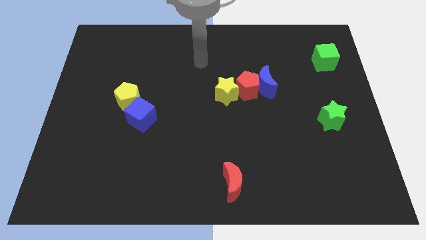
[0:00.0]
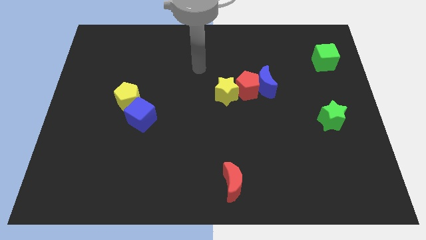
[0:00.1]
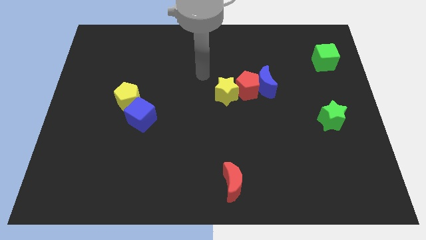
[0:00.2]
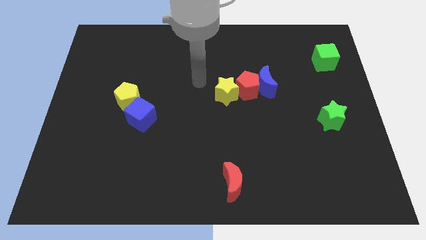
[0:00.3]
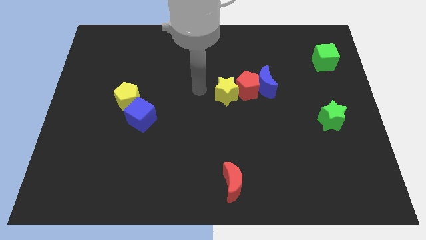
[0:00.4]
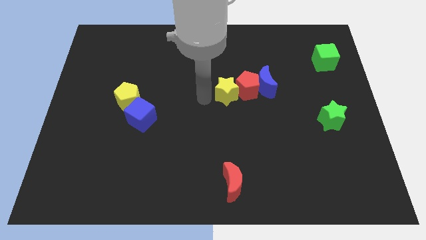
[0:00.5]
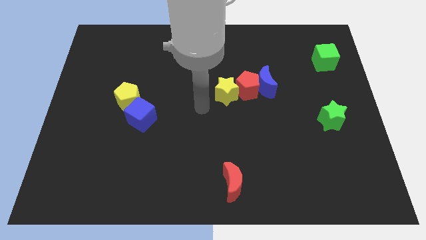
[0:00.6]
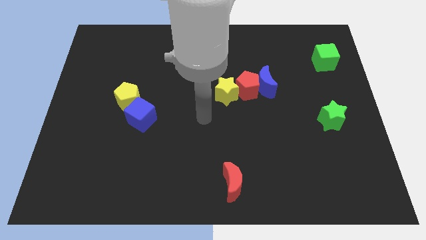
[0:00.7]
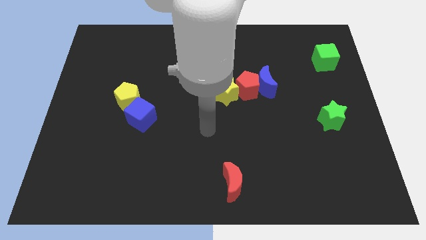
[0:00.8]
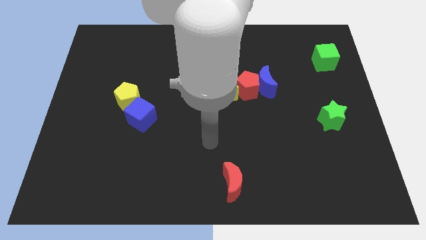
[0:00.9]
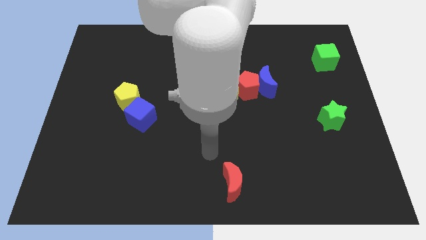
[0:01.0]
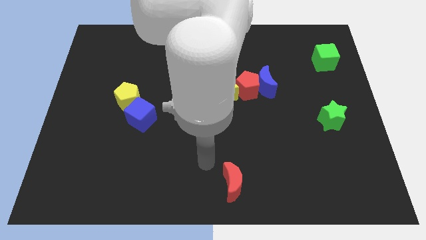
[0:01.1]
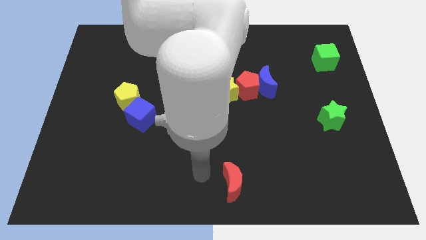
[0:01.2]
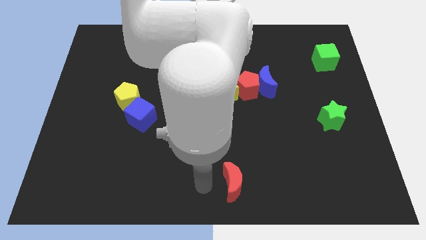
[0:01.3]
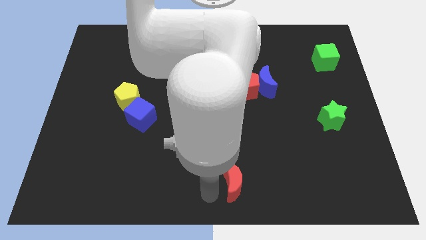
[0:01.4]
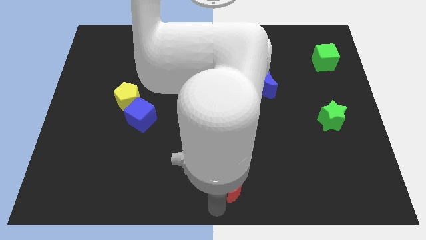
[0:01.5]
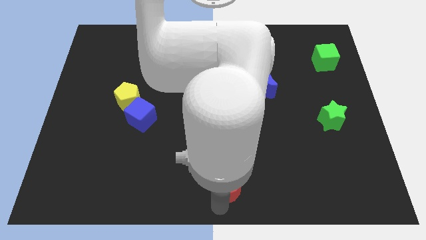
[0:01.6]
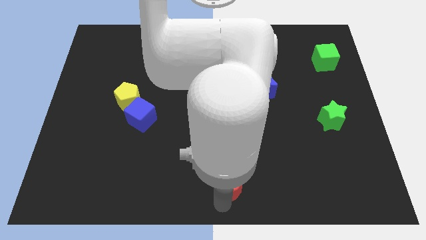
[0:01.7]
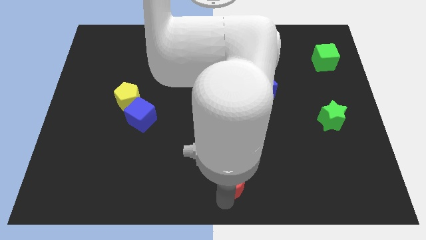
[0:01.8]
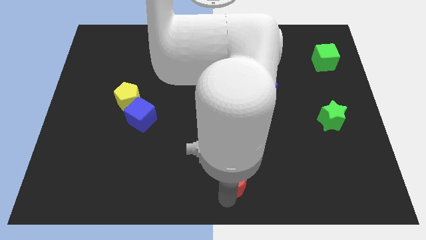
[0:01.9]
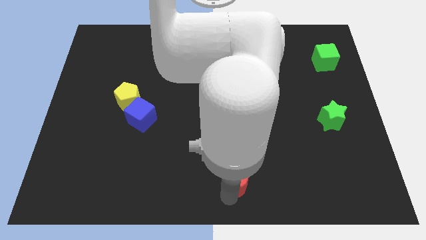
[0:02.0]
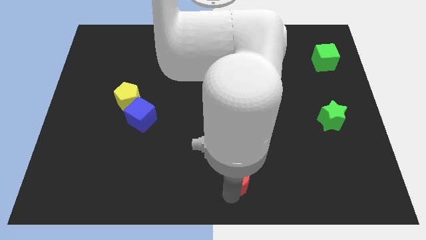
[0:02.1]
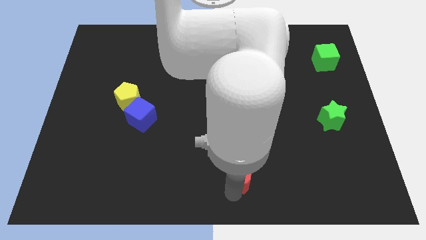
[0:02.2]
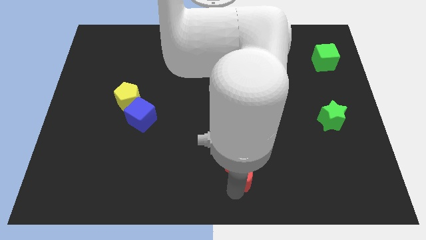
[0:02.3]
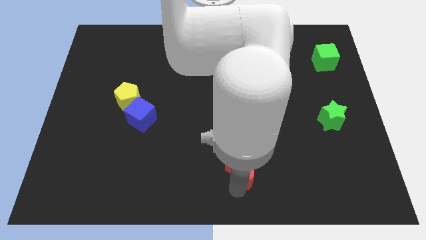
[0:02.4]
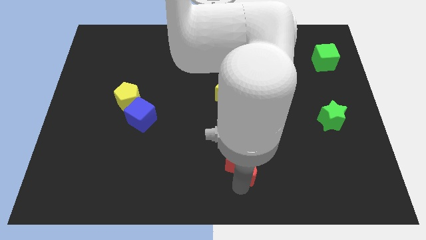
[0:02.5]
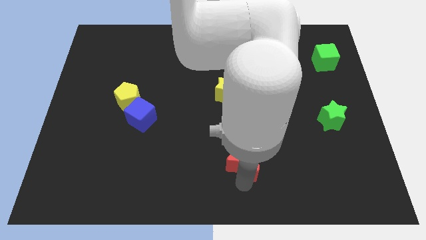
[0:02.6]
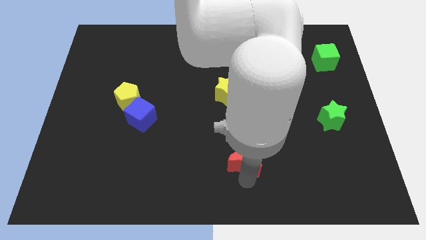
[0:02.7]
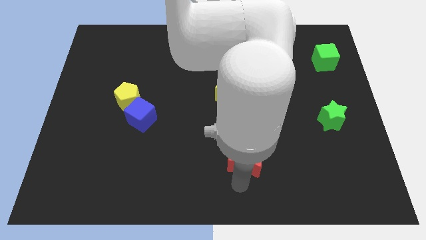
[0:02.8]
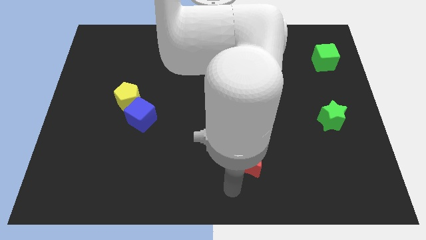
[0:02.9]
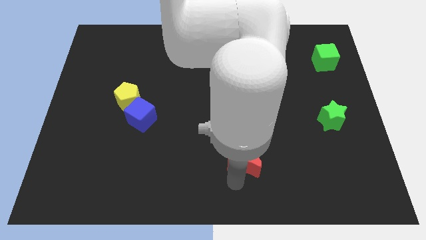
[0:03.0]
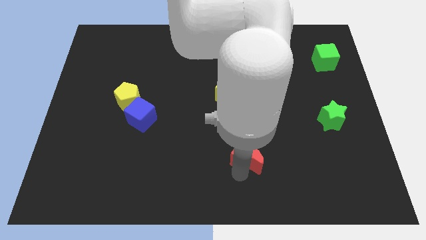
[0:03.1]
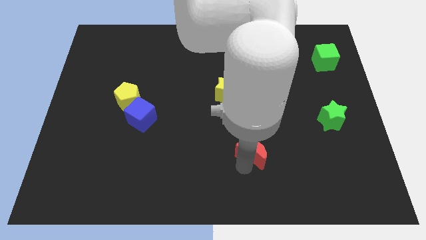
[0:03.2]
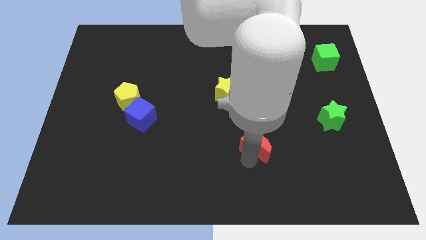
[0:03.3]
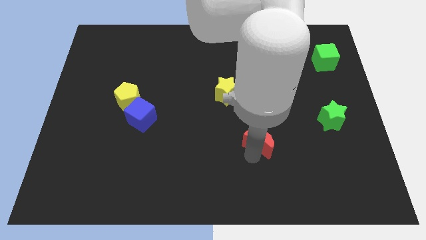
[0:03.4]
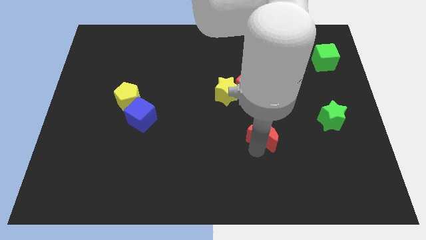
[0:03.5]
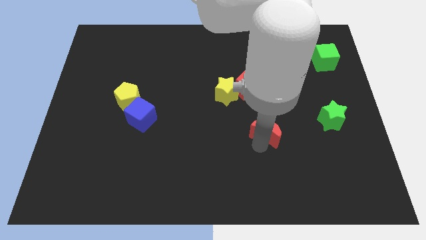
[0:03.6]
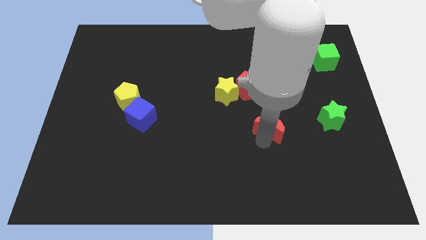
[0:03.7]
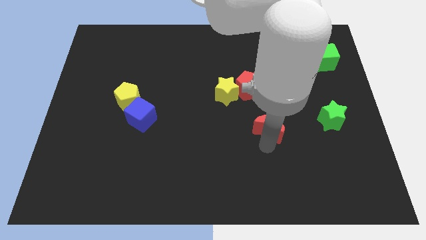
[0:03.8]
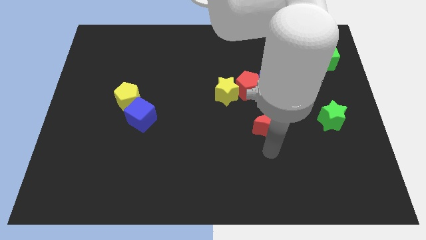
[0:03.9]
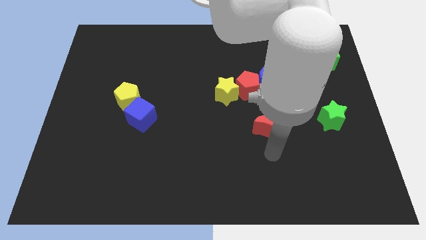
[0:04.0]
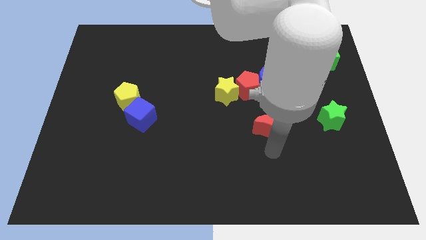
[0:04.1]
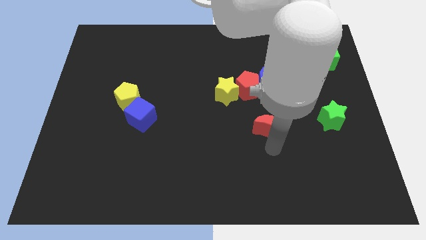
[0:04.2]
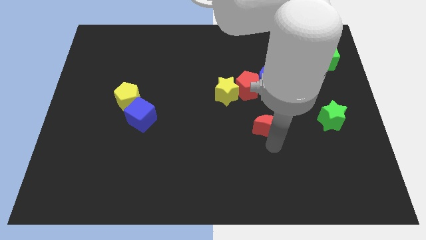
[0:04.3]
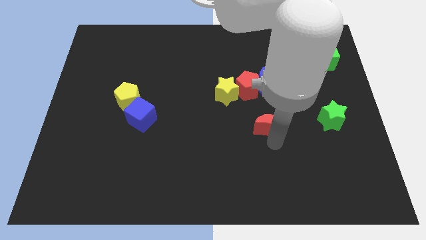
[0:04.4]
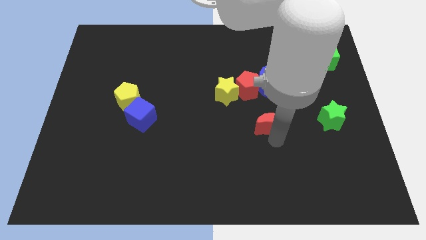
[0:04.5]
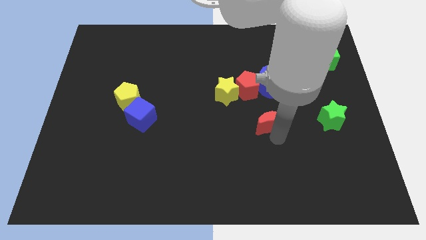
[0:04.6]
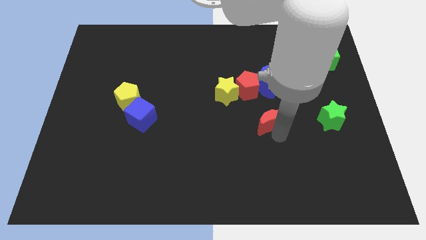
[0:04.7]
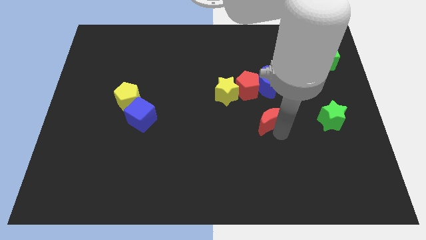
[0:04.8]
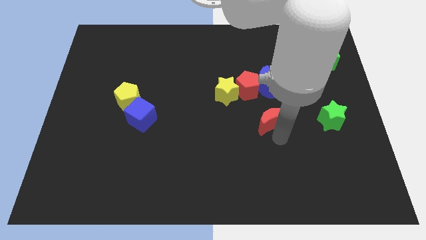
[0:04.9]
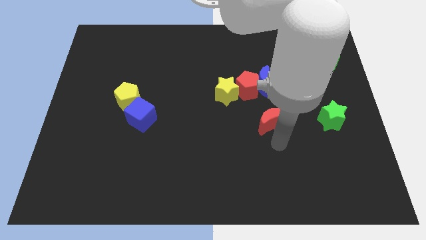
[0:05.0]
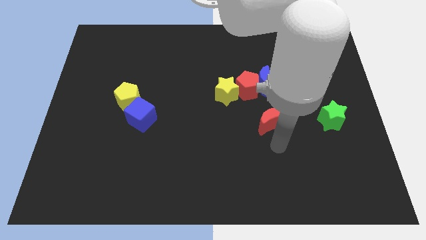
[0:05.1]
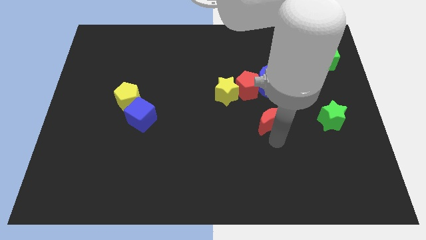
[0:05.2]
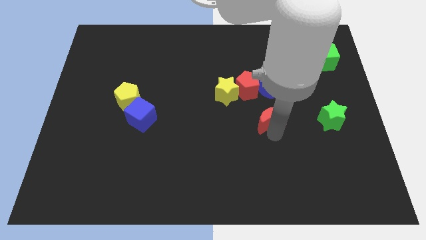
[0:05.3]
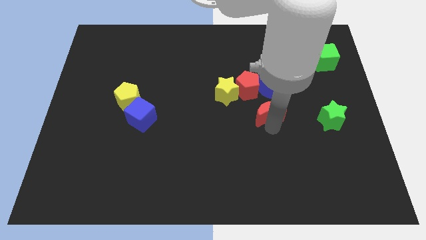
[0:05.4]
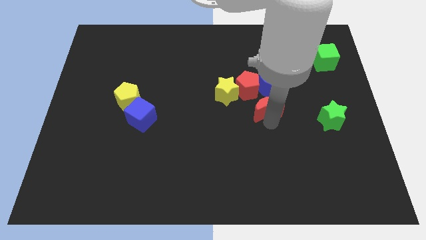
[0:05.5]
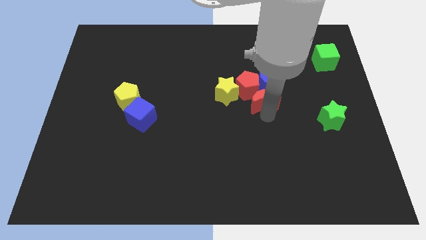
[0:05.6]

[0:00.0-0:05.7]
put the red moon towards the blue moon

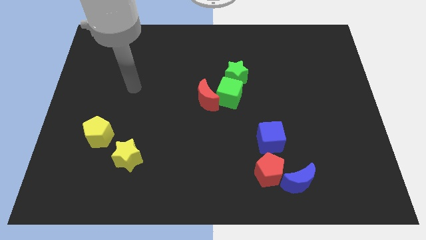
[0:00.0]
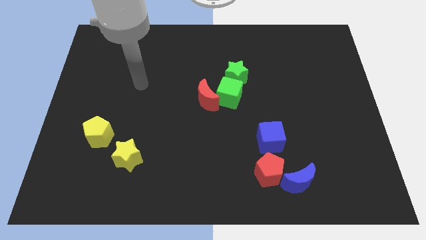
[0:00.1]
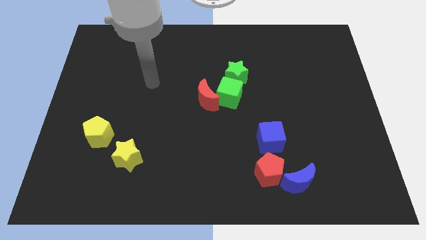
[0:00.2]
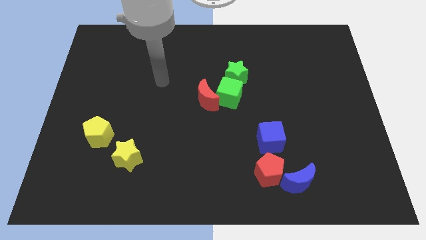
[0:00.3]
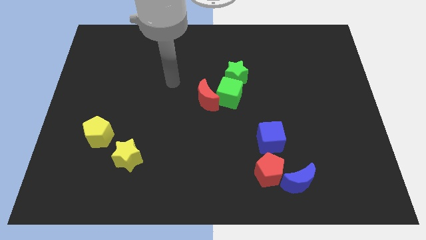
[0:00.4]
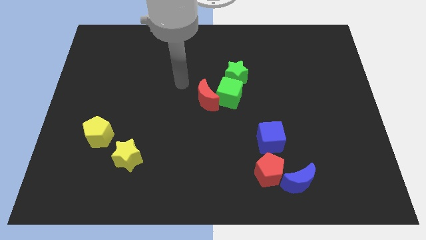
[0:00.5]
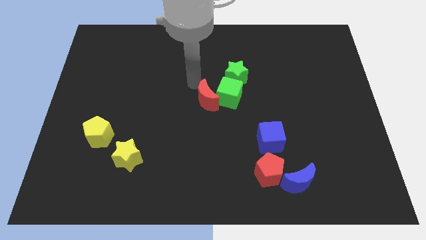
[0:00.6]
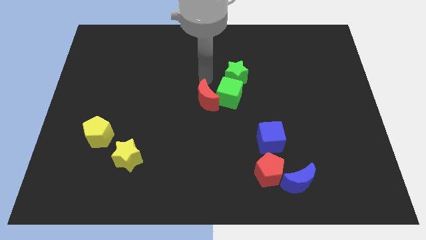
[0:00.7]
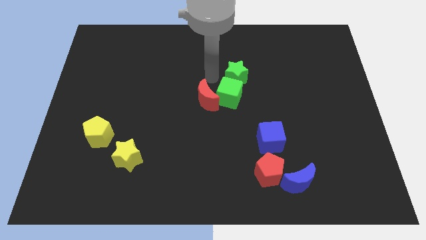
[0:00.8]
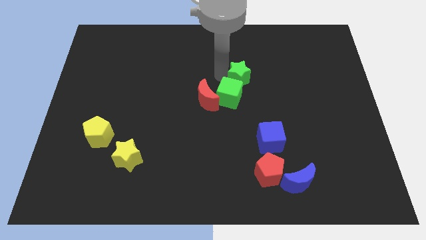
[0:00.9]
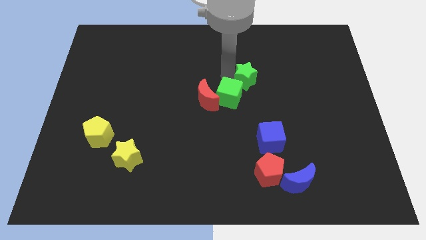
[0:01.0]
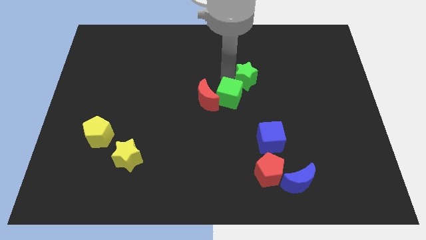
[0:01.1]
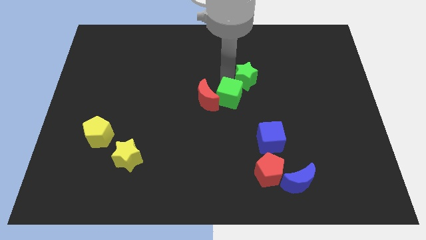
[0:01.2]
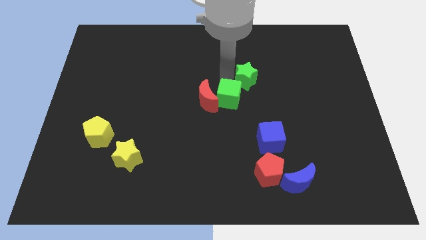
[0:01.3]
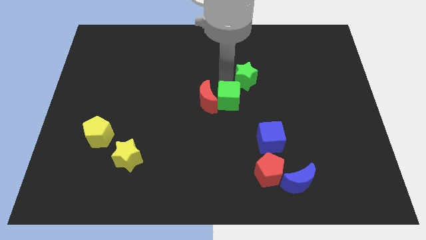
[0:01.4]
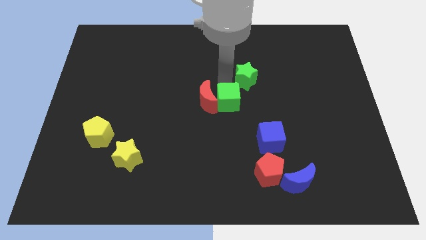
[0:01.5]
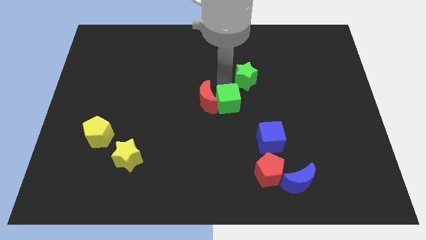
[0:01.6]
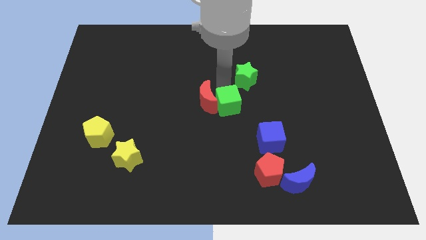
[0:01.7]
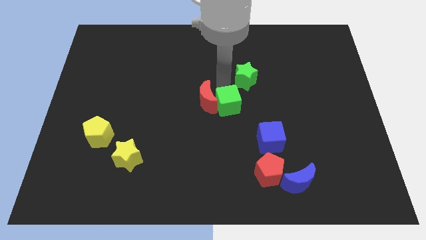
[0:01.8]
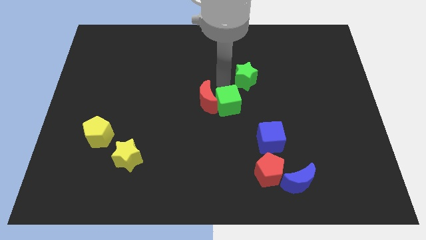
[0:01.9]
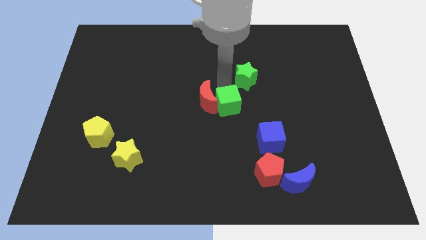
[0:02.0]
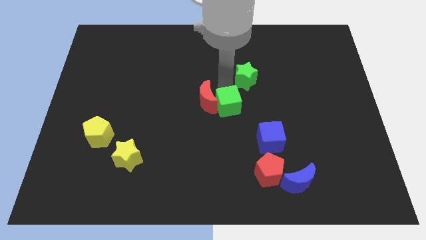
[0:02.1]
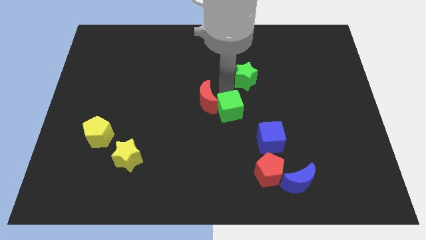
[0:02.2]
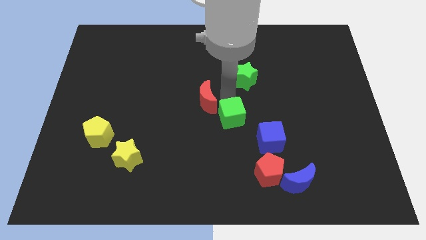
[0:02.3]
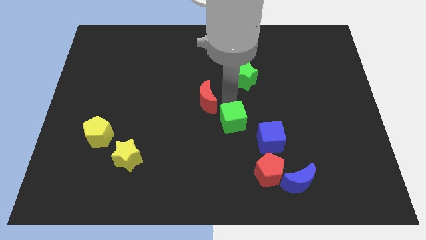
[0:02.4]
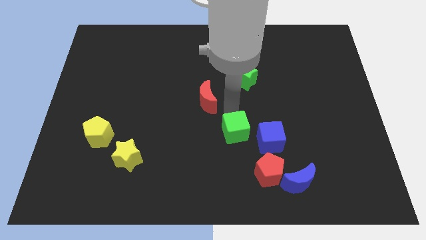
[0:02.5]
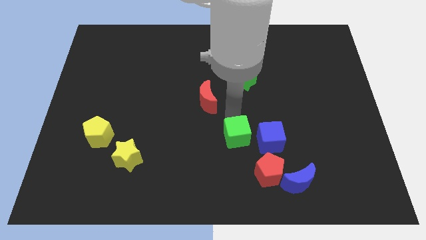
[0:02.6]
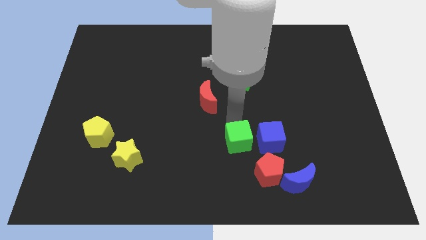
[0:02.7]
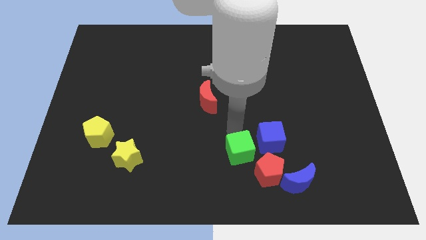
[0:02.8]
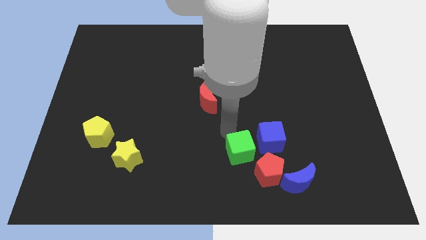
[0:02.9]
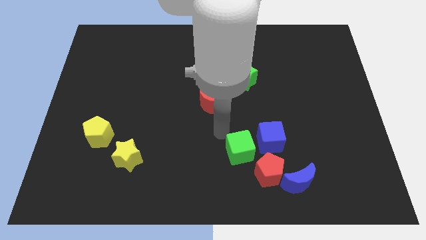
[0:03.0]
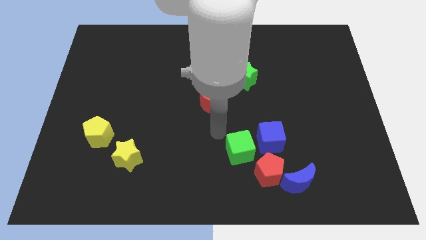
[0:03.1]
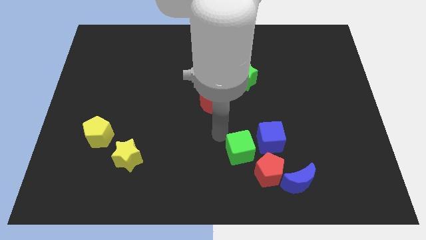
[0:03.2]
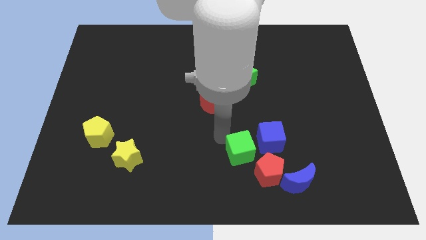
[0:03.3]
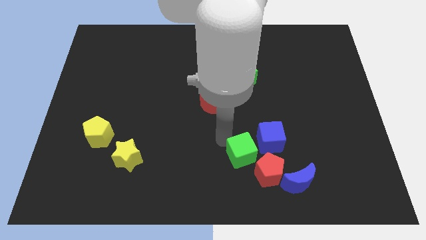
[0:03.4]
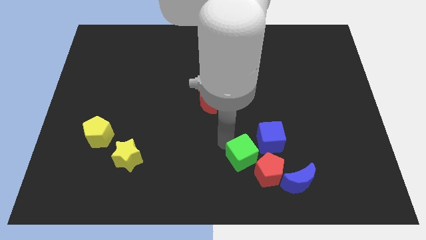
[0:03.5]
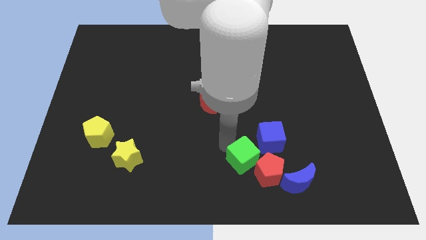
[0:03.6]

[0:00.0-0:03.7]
push the green cube to the red pentagon
